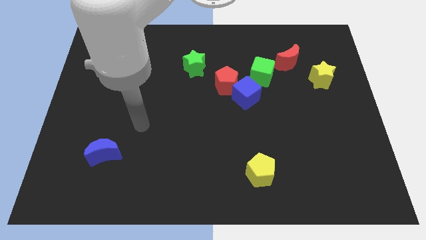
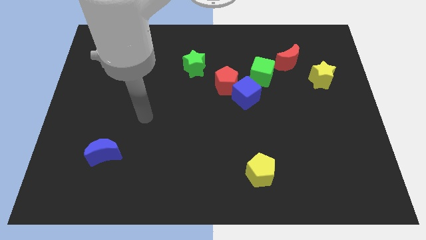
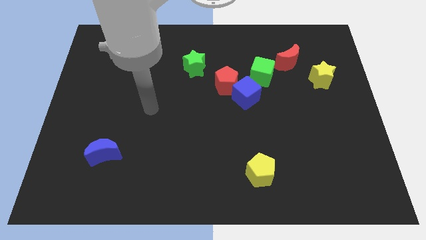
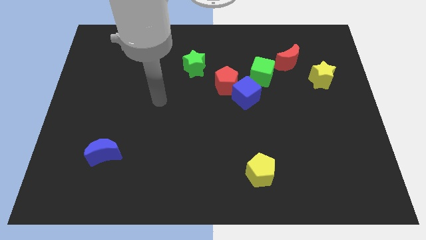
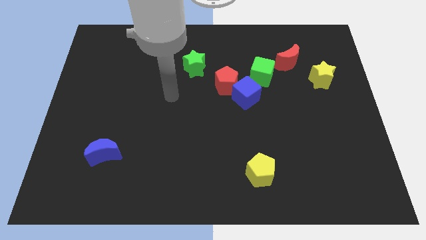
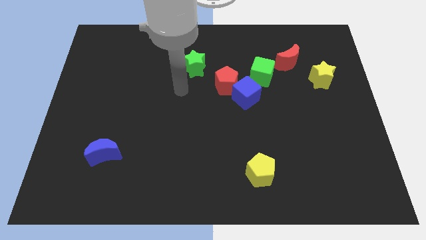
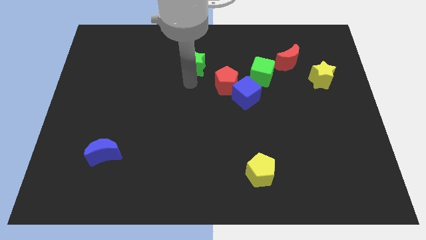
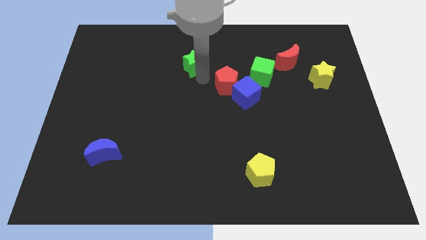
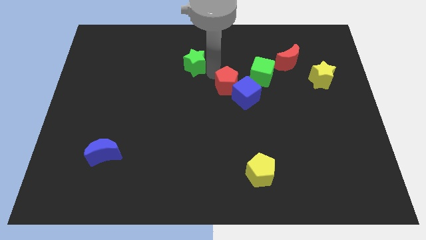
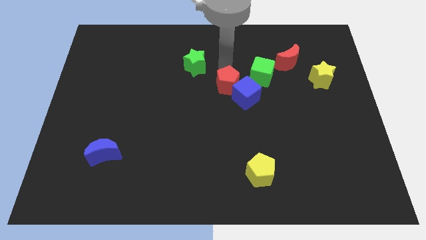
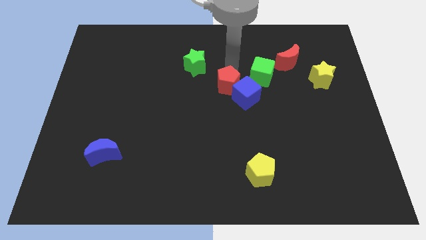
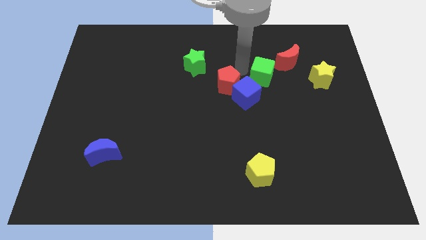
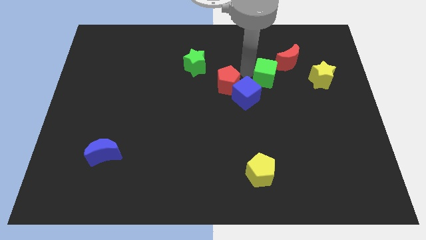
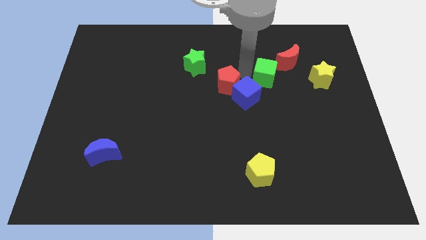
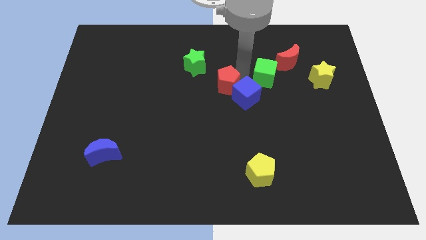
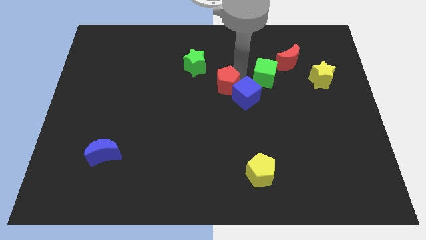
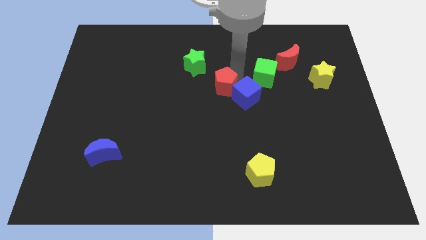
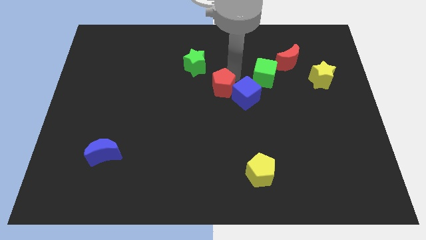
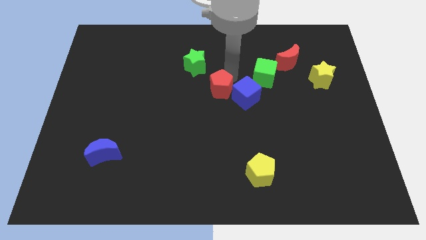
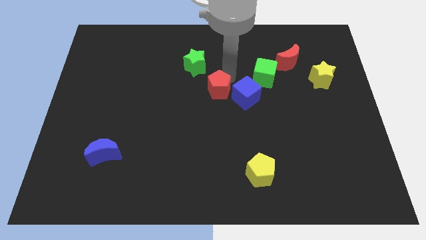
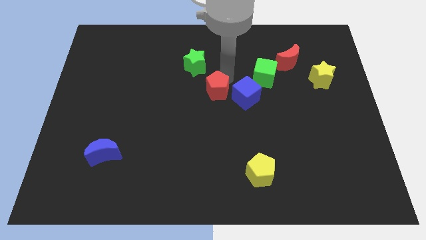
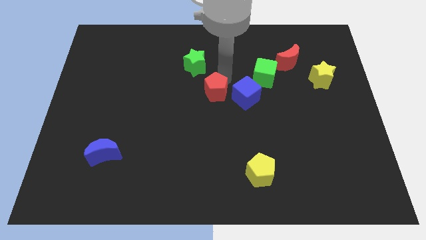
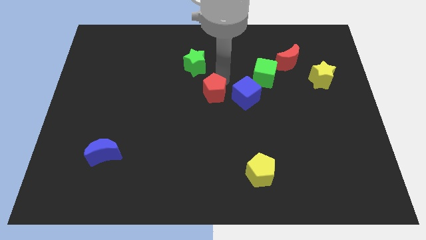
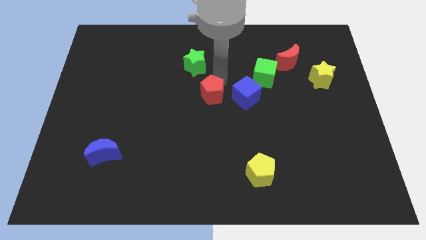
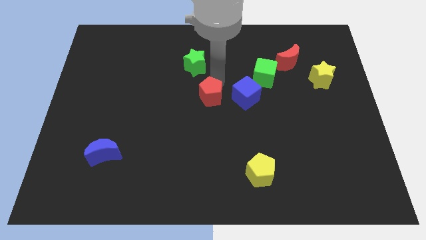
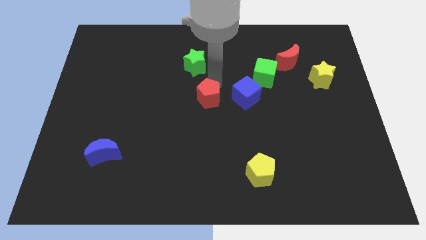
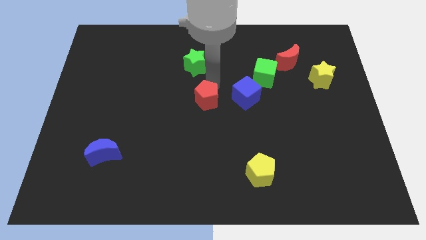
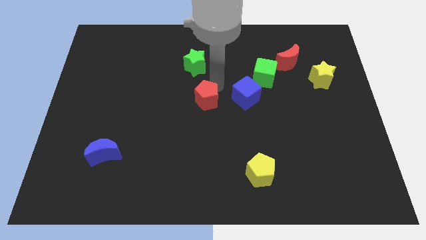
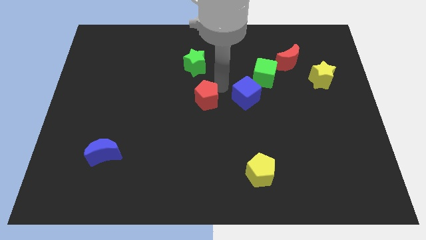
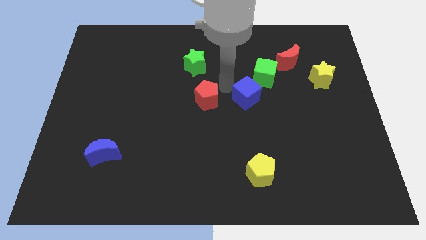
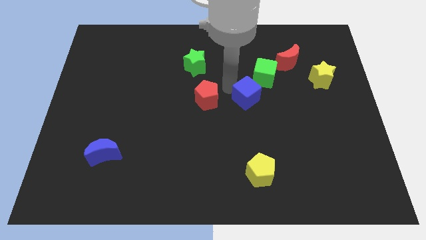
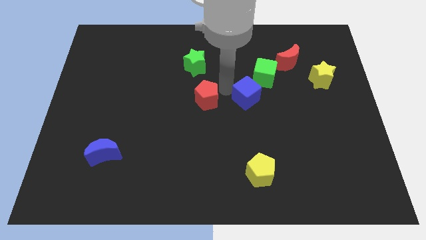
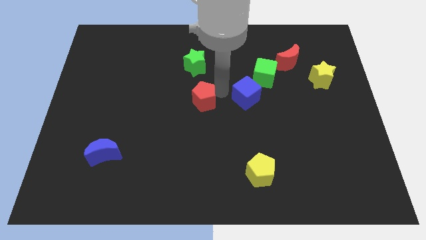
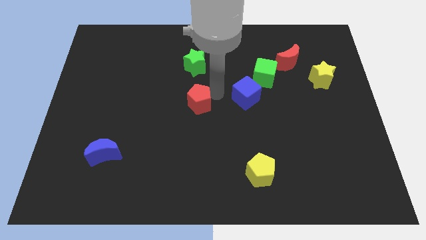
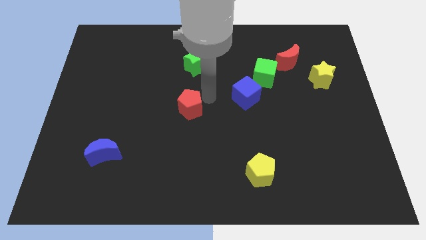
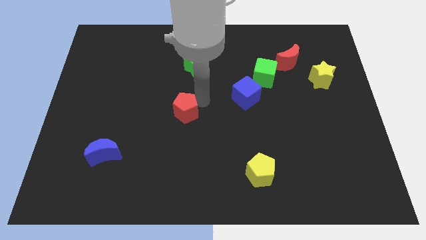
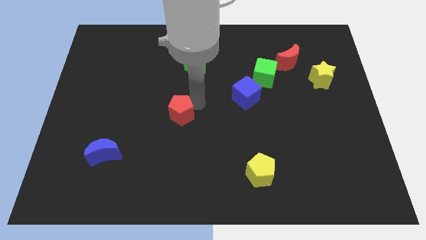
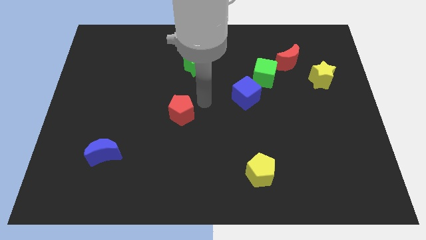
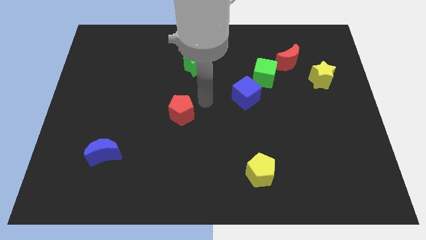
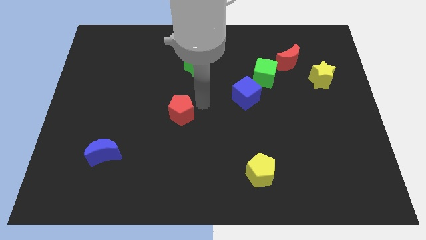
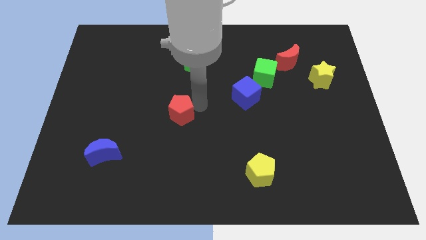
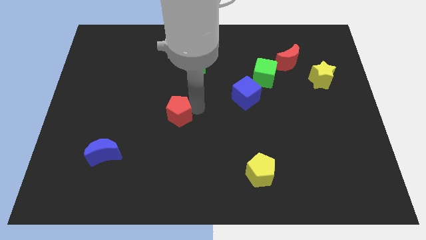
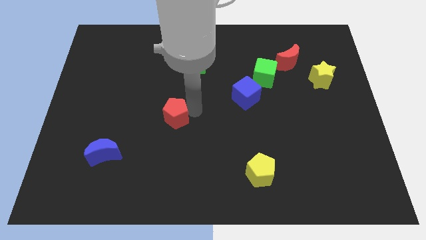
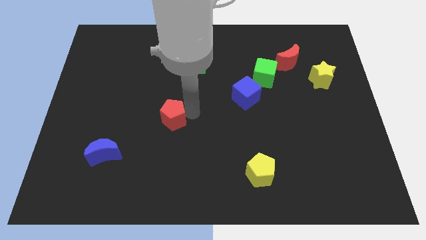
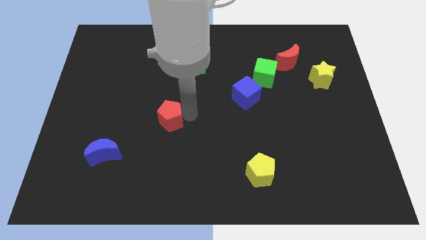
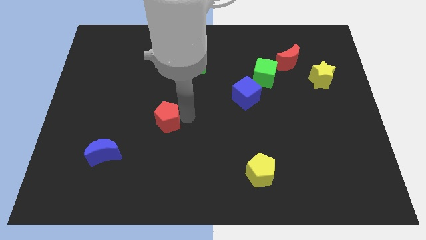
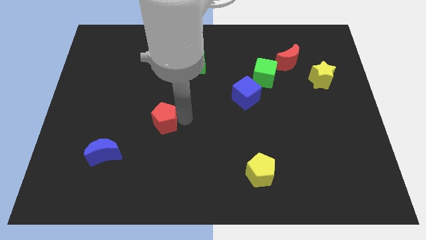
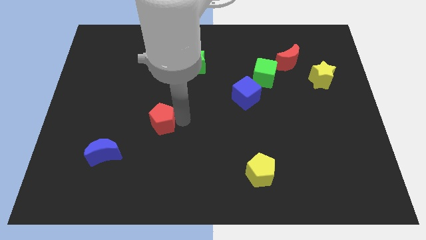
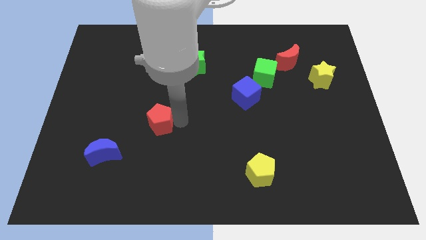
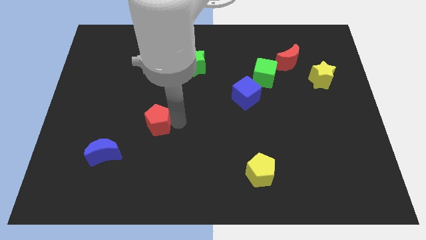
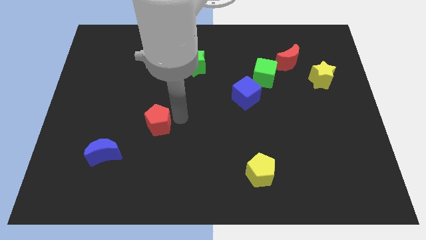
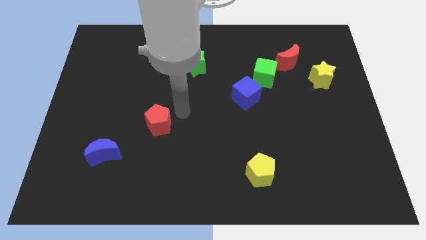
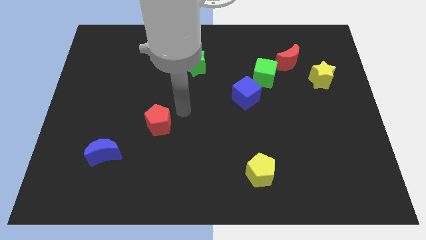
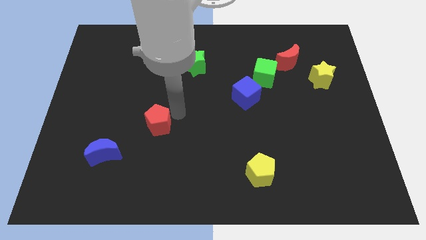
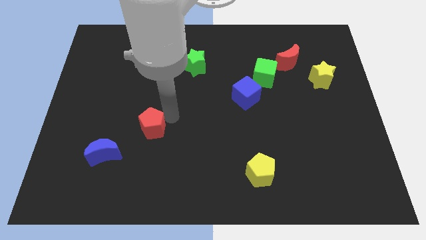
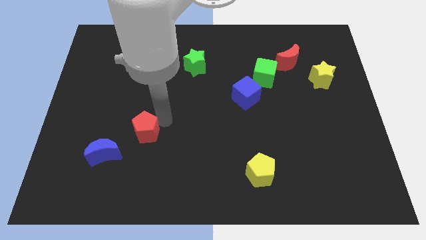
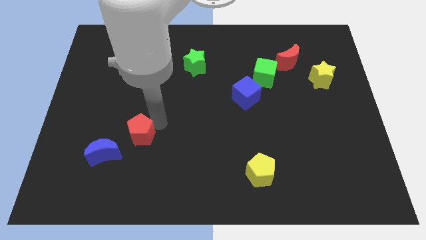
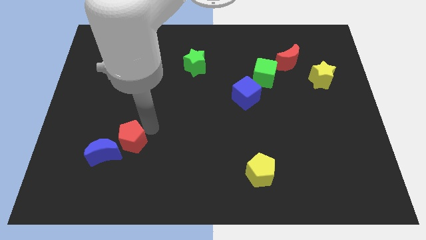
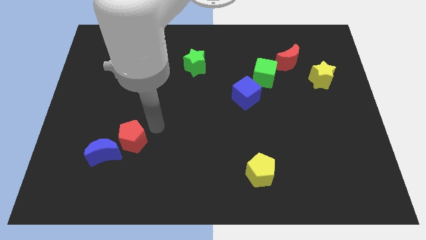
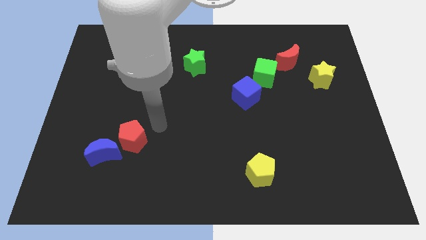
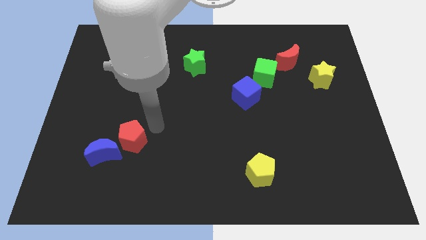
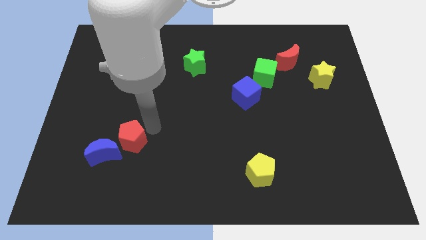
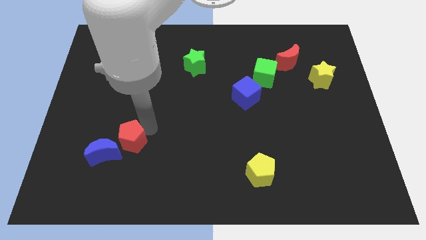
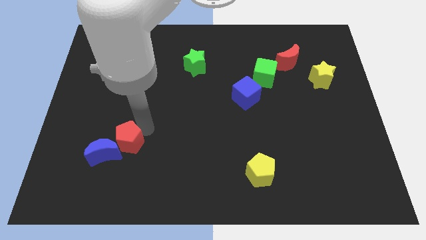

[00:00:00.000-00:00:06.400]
put the red pentagon close to the blue moon
